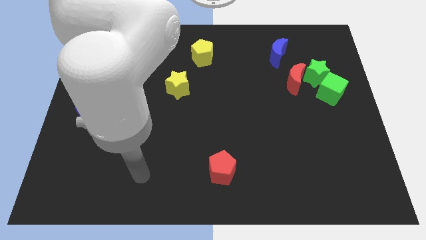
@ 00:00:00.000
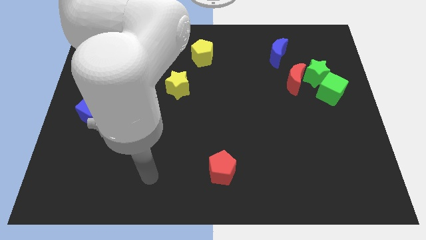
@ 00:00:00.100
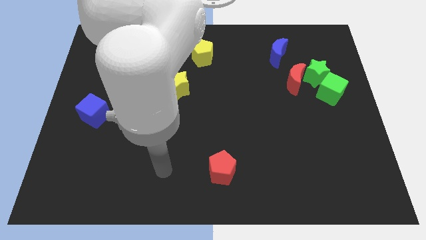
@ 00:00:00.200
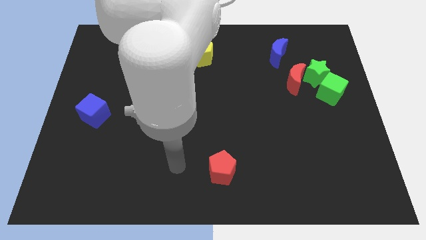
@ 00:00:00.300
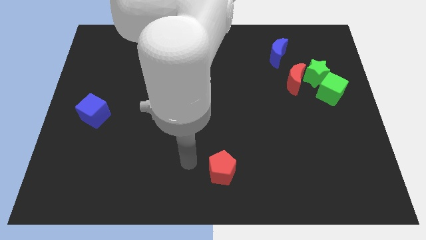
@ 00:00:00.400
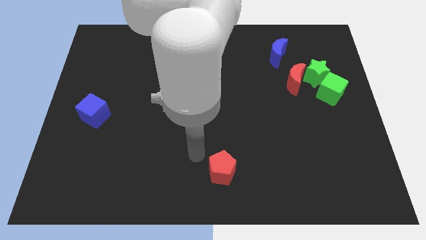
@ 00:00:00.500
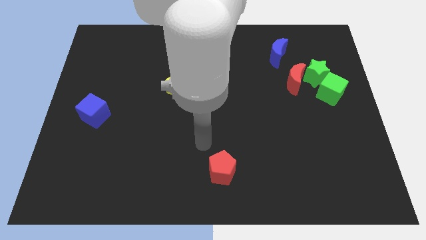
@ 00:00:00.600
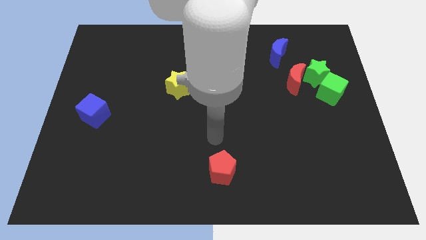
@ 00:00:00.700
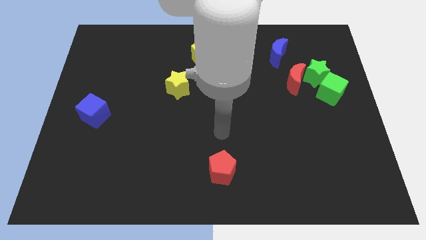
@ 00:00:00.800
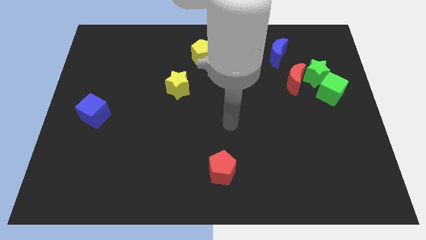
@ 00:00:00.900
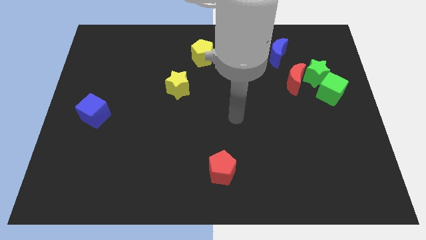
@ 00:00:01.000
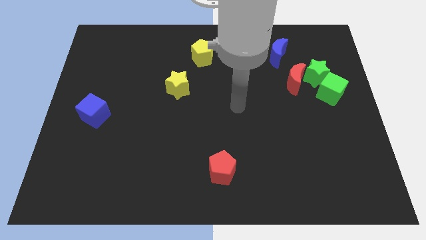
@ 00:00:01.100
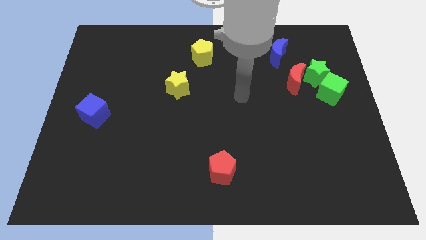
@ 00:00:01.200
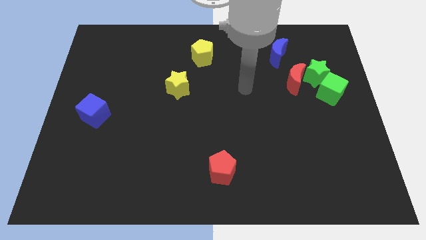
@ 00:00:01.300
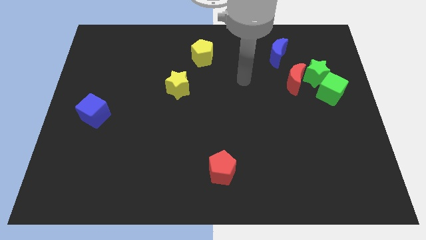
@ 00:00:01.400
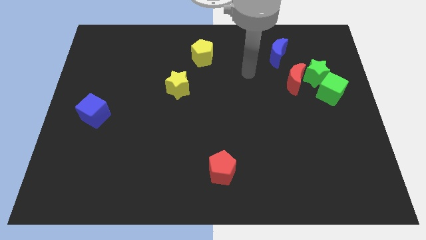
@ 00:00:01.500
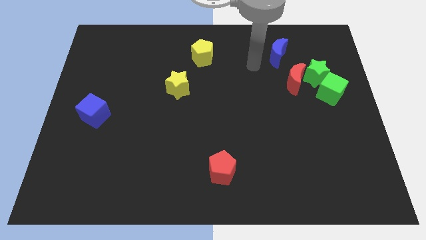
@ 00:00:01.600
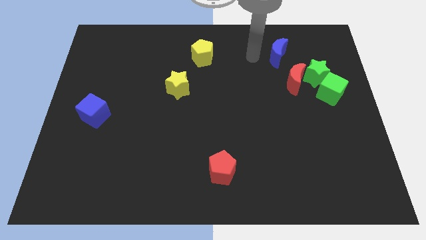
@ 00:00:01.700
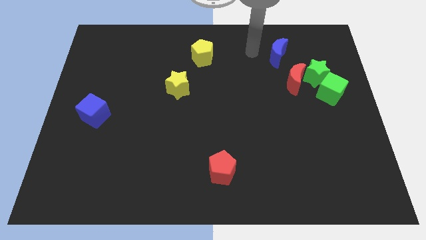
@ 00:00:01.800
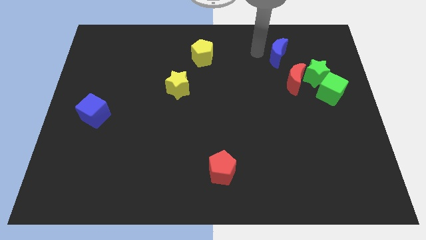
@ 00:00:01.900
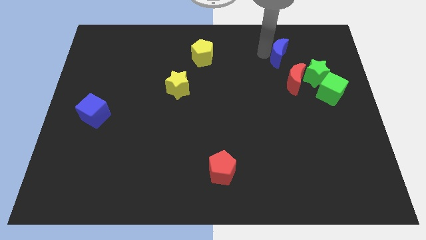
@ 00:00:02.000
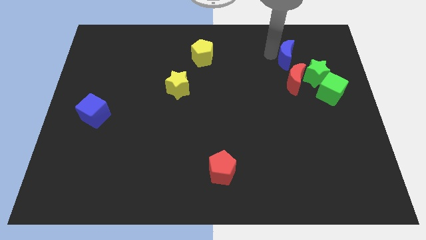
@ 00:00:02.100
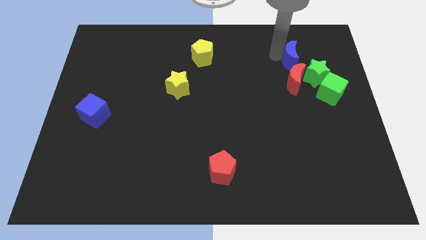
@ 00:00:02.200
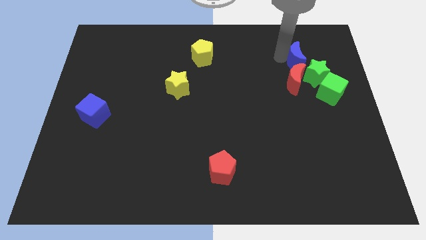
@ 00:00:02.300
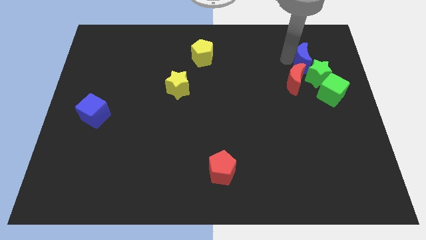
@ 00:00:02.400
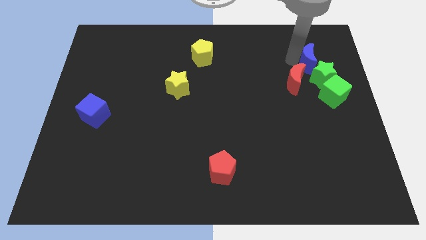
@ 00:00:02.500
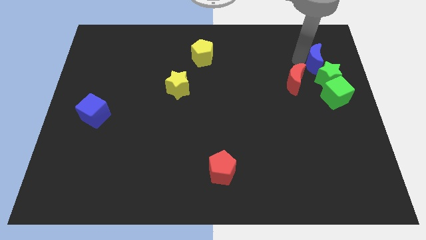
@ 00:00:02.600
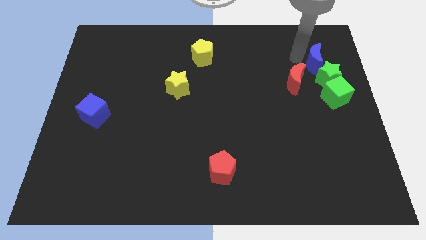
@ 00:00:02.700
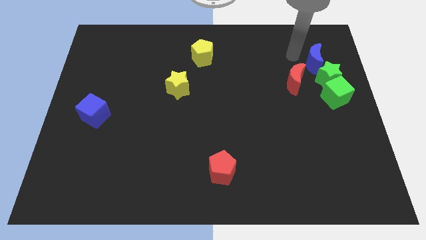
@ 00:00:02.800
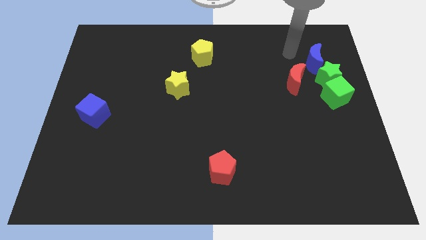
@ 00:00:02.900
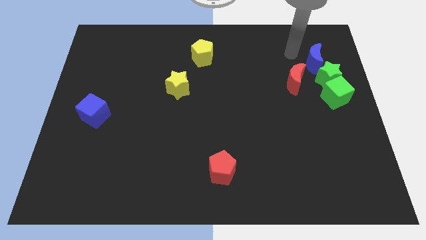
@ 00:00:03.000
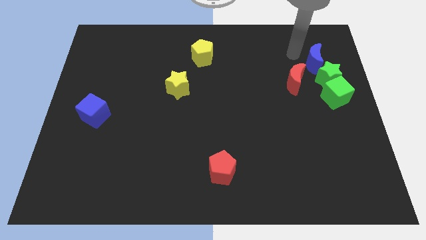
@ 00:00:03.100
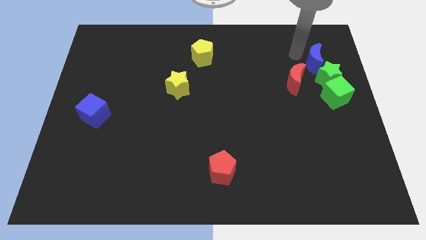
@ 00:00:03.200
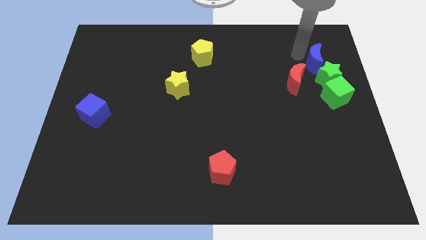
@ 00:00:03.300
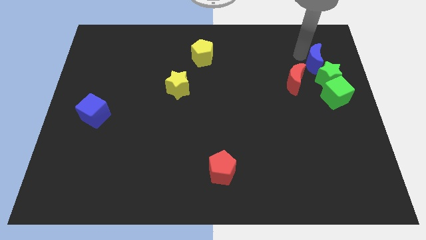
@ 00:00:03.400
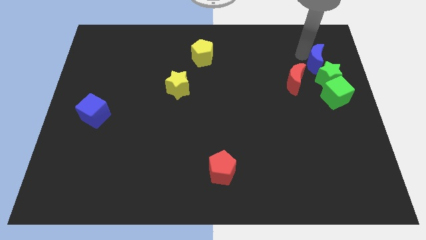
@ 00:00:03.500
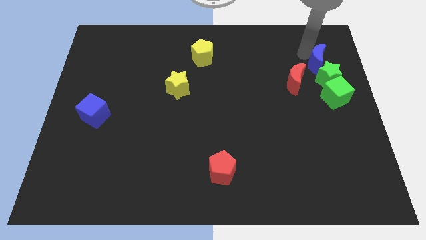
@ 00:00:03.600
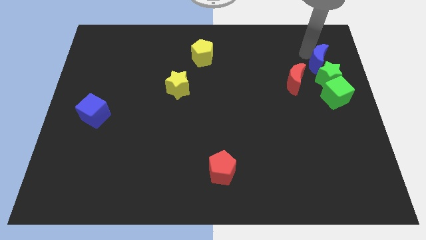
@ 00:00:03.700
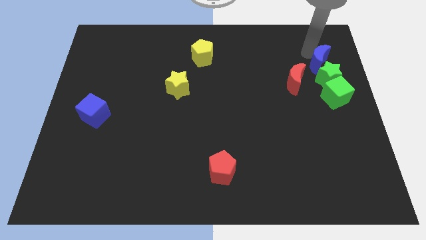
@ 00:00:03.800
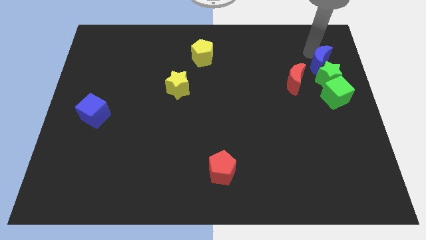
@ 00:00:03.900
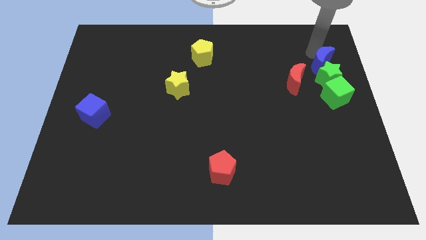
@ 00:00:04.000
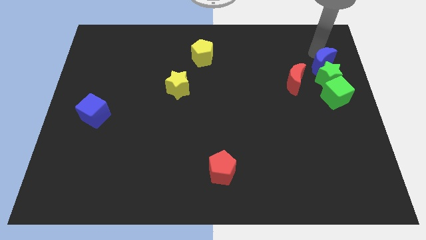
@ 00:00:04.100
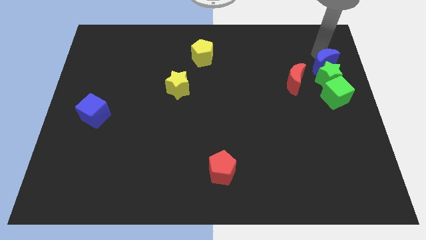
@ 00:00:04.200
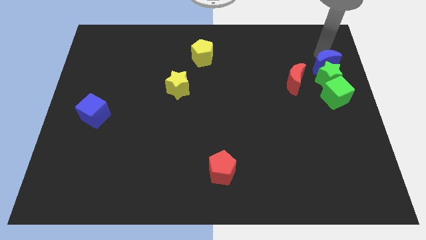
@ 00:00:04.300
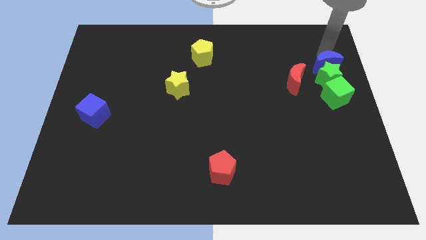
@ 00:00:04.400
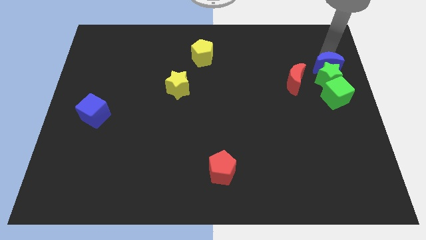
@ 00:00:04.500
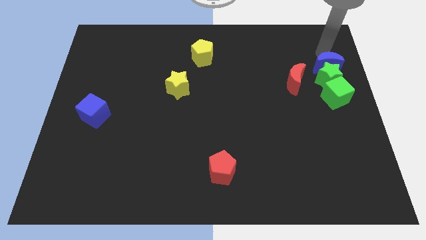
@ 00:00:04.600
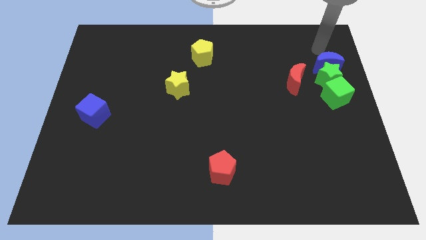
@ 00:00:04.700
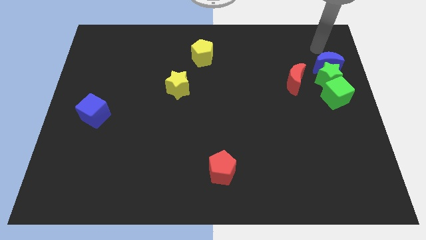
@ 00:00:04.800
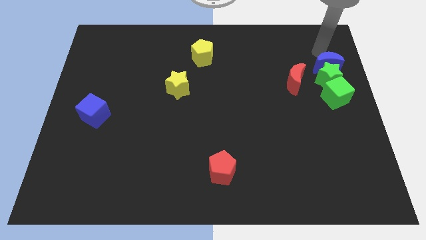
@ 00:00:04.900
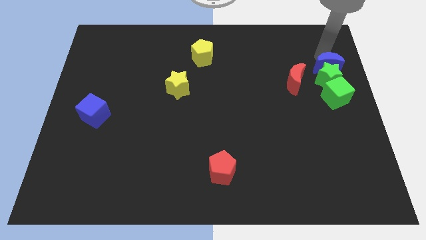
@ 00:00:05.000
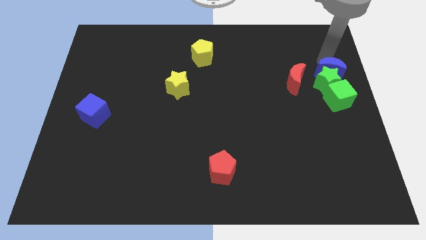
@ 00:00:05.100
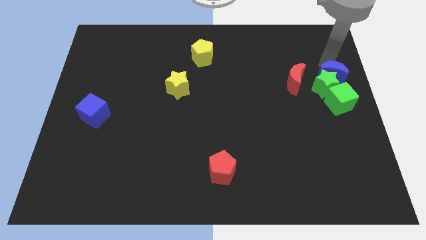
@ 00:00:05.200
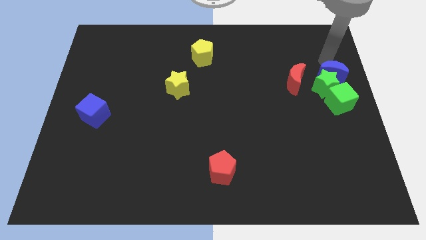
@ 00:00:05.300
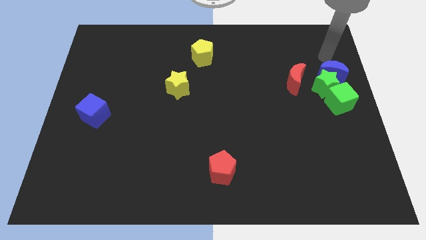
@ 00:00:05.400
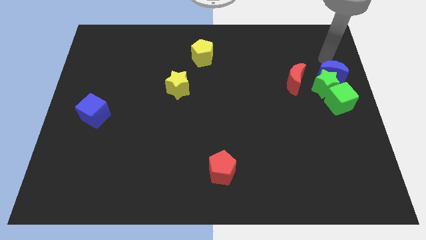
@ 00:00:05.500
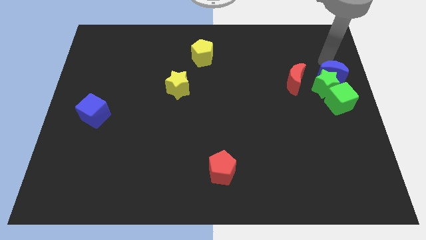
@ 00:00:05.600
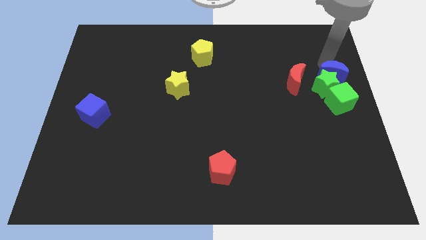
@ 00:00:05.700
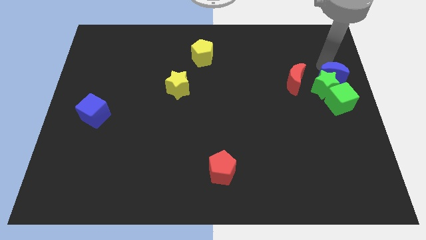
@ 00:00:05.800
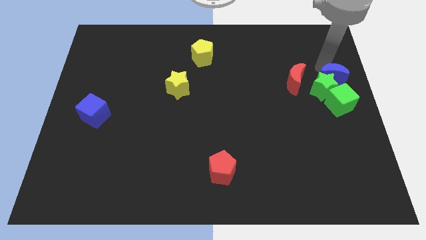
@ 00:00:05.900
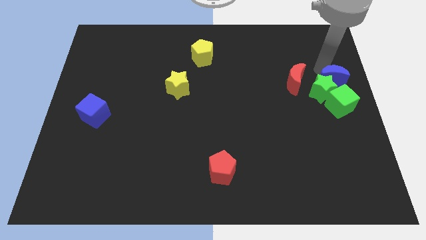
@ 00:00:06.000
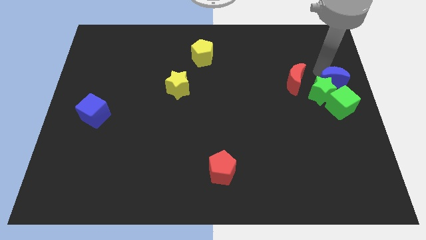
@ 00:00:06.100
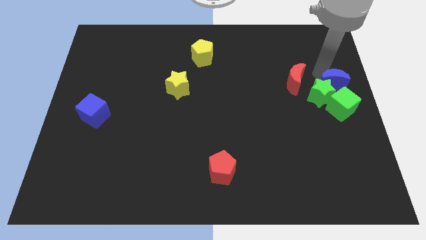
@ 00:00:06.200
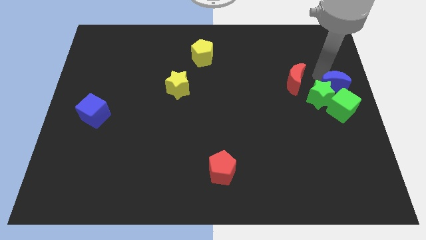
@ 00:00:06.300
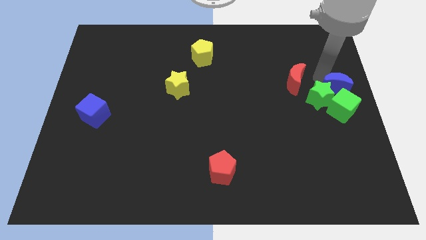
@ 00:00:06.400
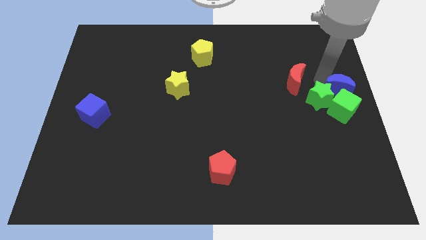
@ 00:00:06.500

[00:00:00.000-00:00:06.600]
push the blue moon to the green cube
